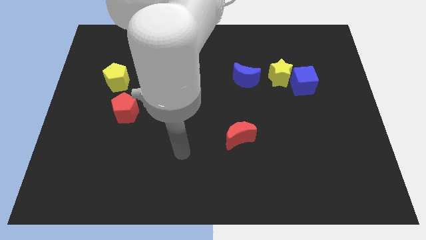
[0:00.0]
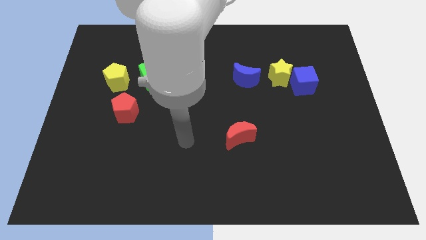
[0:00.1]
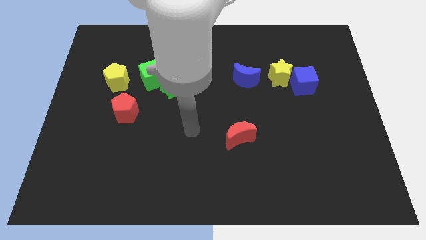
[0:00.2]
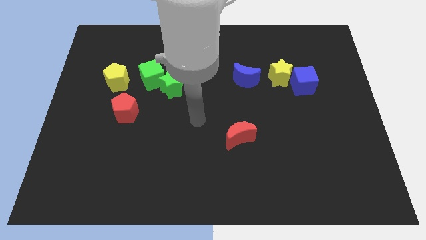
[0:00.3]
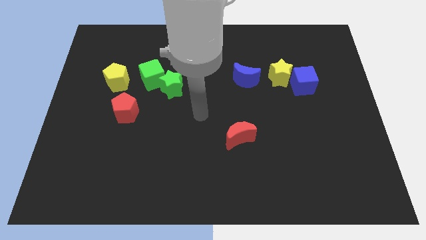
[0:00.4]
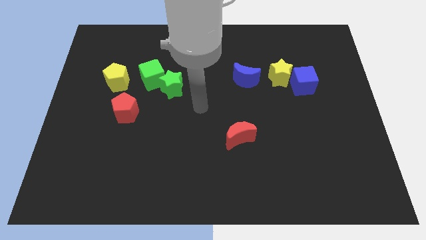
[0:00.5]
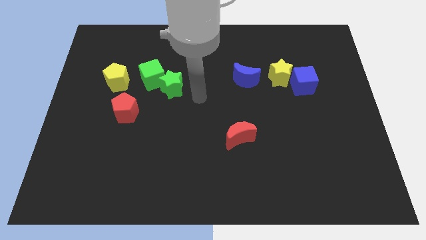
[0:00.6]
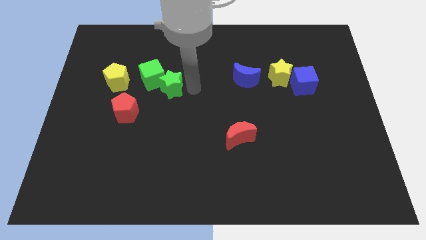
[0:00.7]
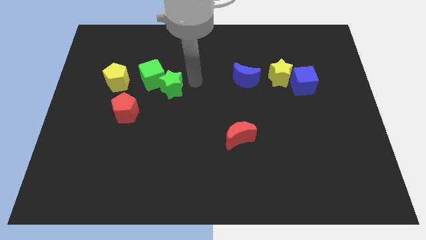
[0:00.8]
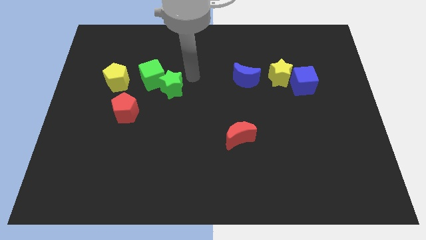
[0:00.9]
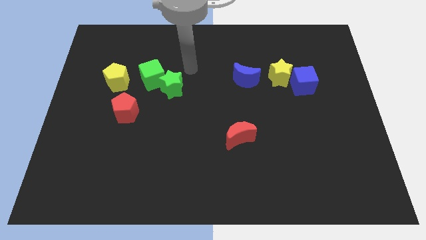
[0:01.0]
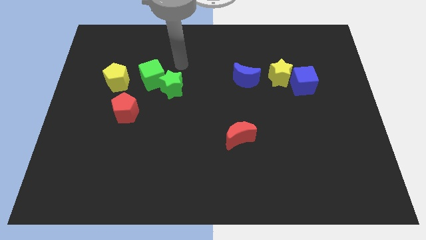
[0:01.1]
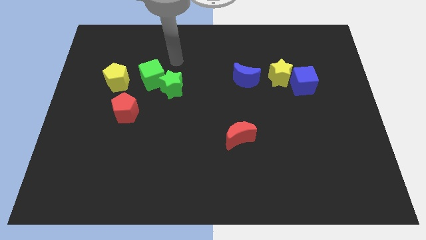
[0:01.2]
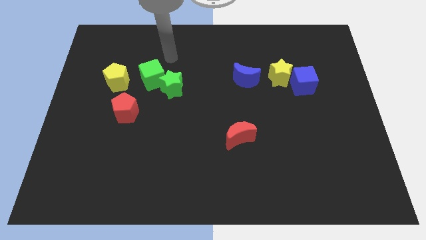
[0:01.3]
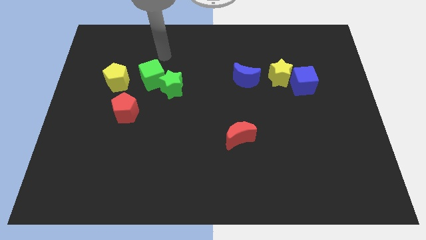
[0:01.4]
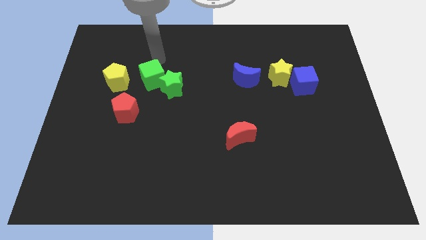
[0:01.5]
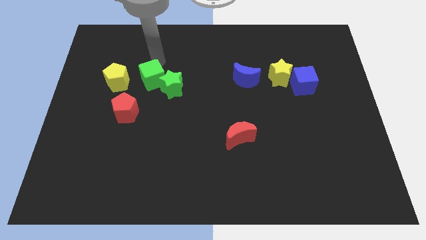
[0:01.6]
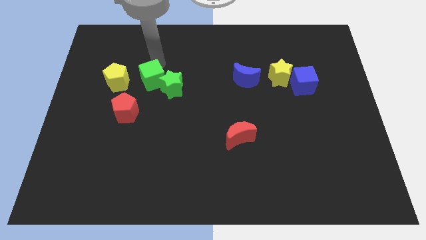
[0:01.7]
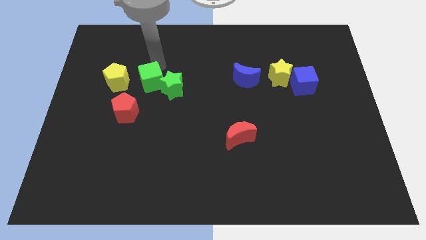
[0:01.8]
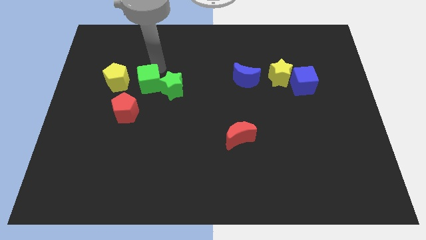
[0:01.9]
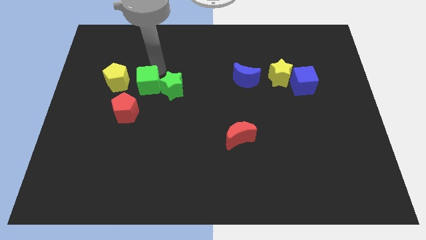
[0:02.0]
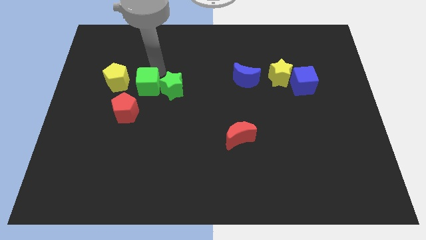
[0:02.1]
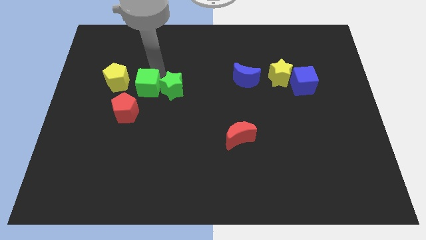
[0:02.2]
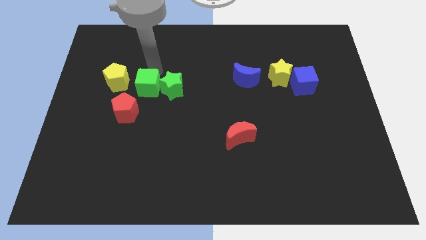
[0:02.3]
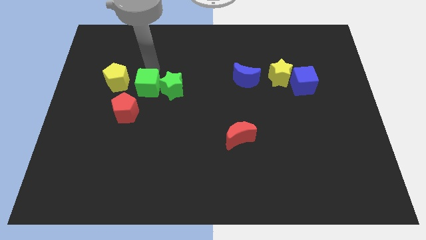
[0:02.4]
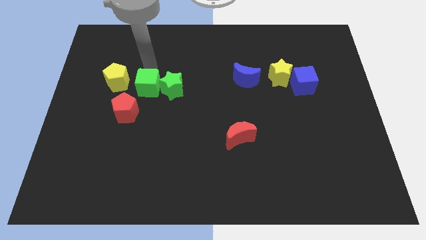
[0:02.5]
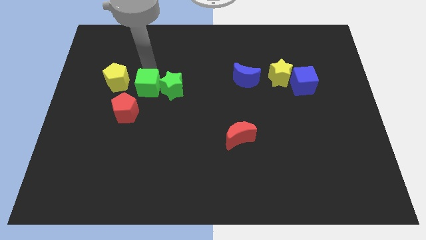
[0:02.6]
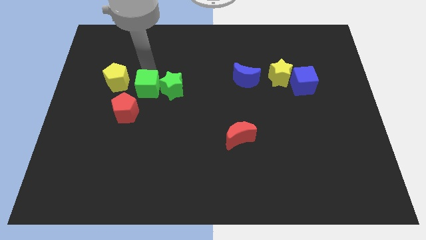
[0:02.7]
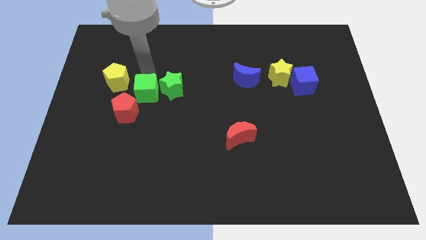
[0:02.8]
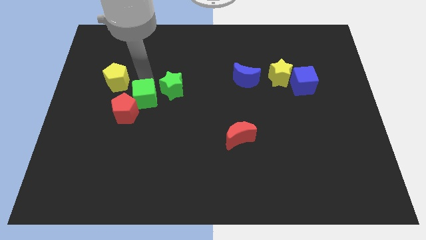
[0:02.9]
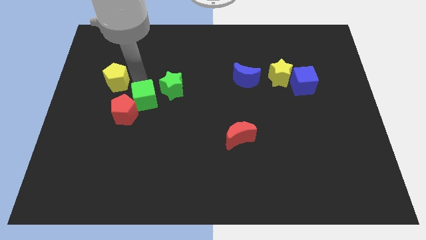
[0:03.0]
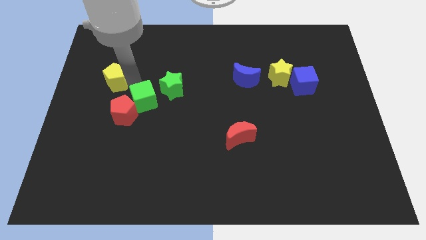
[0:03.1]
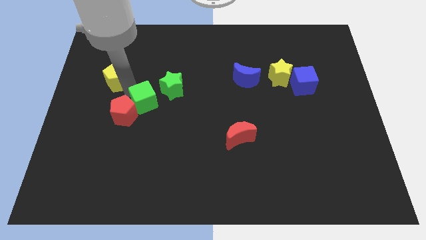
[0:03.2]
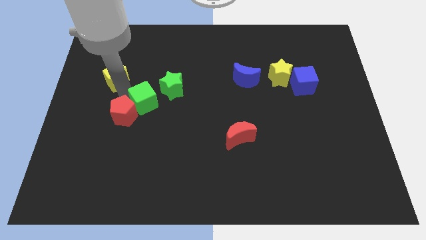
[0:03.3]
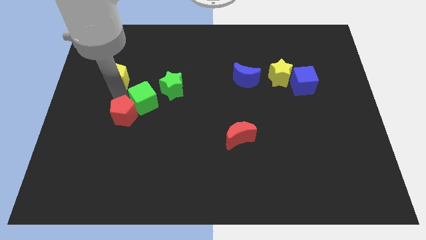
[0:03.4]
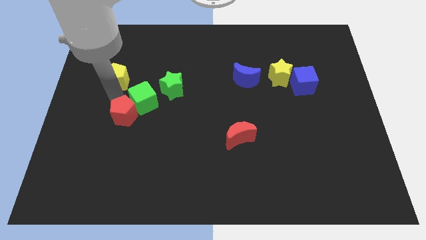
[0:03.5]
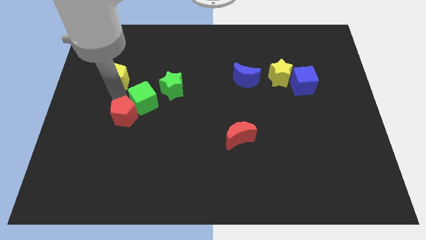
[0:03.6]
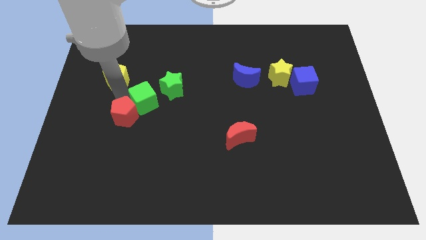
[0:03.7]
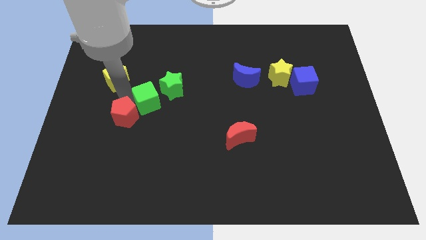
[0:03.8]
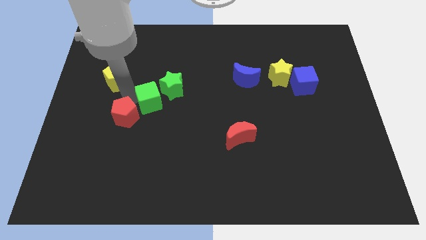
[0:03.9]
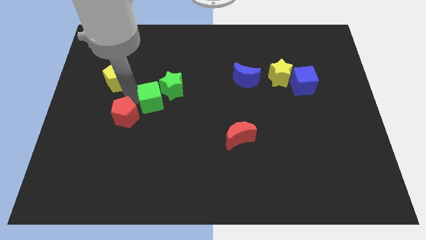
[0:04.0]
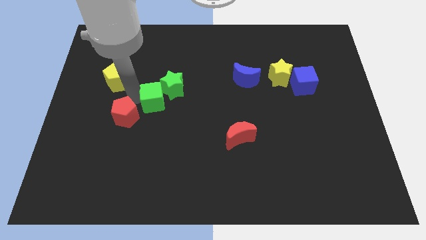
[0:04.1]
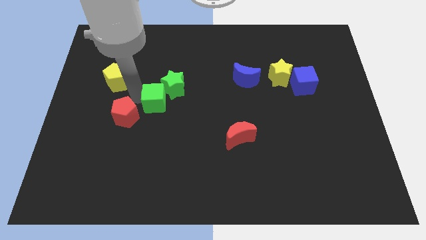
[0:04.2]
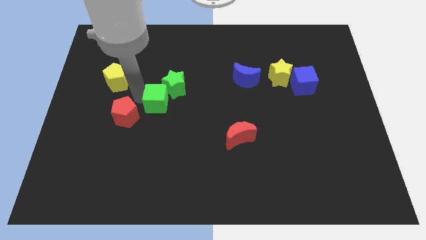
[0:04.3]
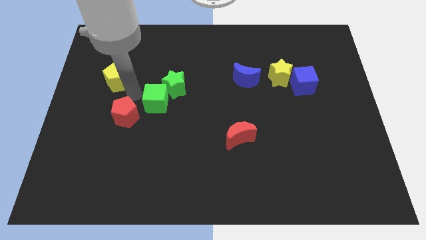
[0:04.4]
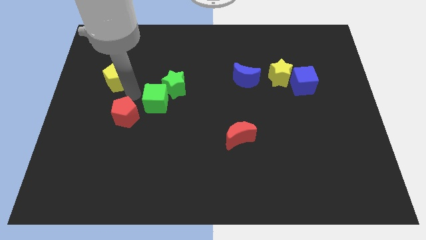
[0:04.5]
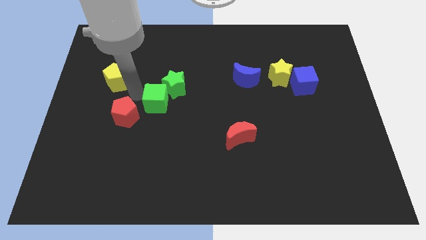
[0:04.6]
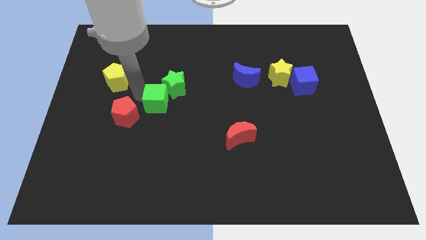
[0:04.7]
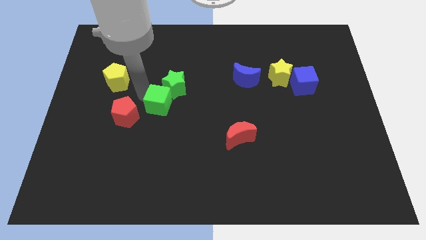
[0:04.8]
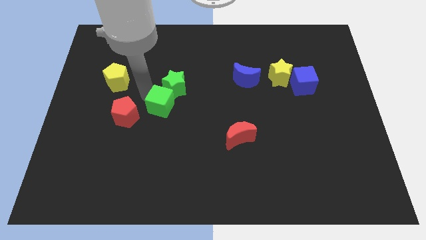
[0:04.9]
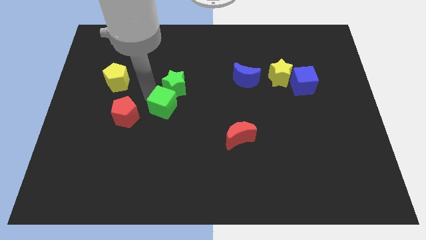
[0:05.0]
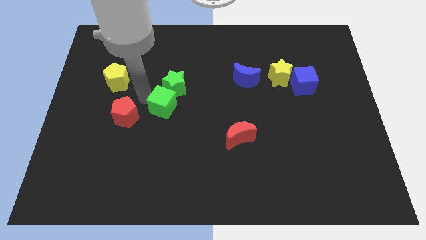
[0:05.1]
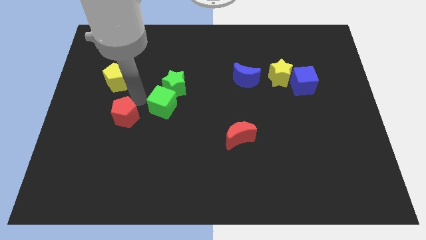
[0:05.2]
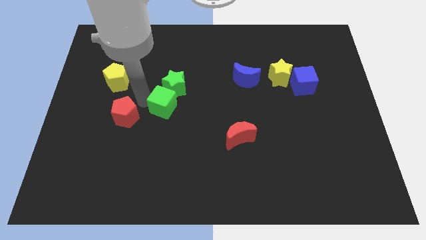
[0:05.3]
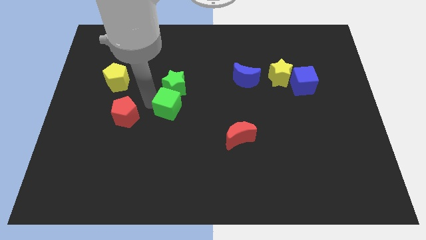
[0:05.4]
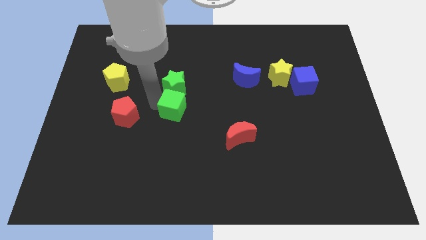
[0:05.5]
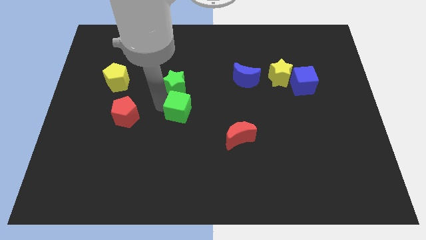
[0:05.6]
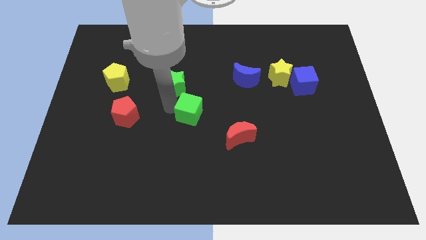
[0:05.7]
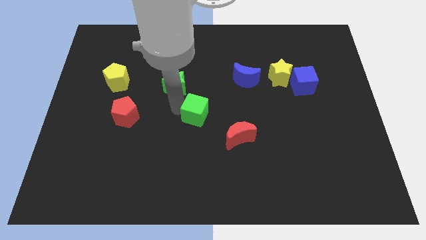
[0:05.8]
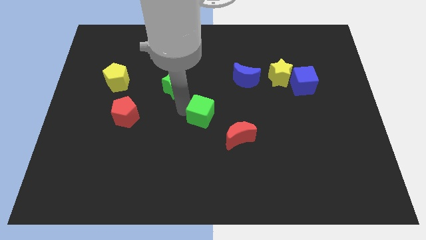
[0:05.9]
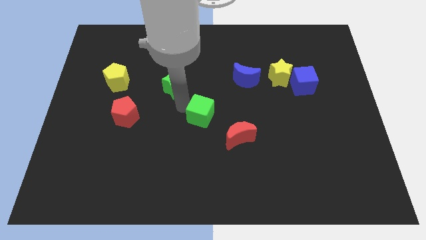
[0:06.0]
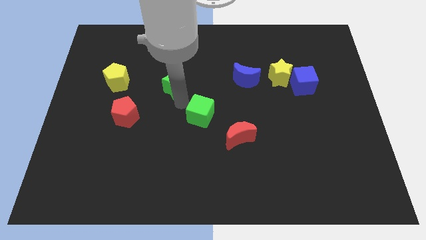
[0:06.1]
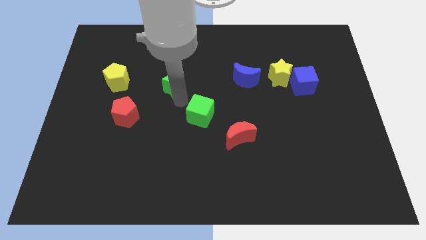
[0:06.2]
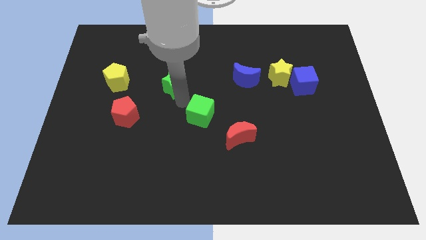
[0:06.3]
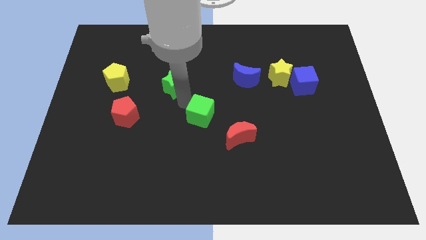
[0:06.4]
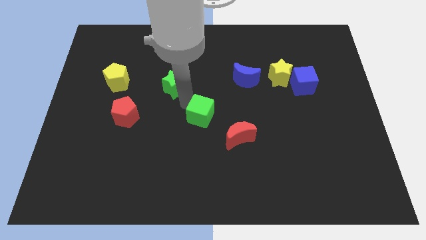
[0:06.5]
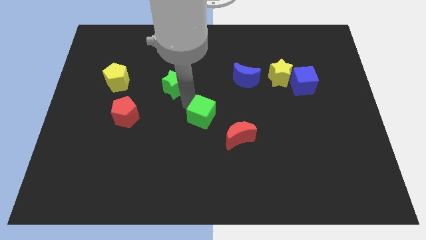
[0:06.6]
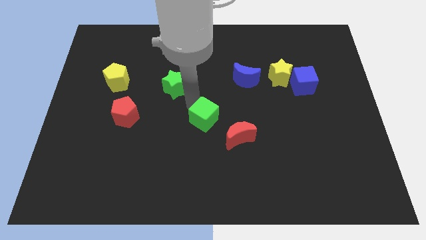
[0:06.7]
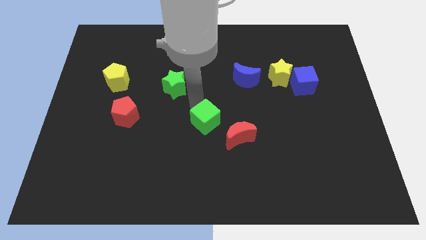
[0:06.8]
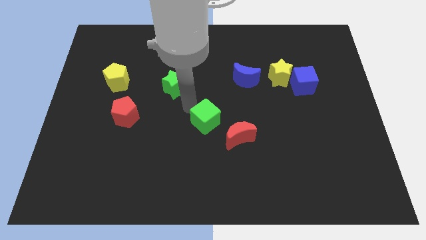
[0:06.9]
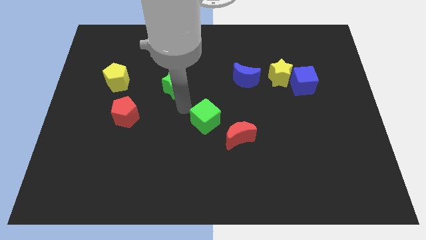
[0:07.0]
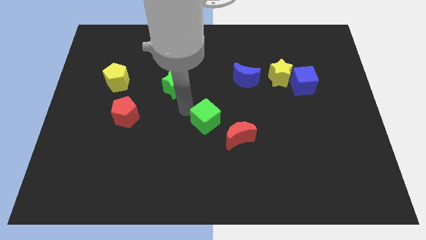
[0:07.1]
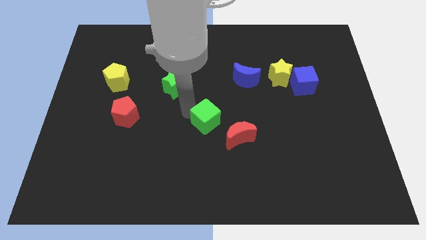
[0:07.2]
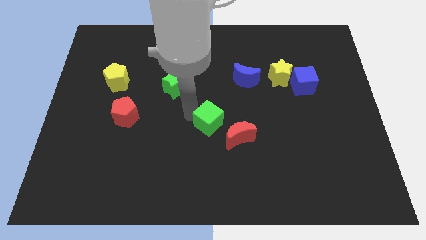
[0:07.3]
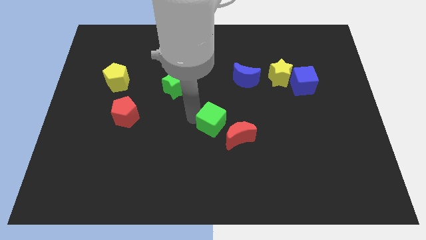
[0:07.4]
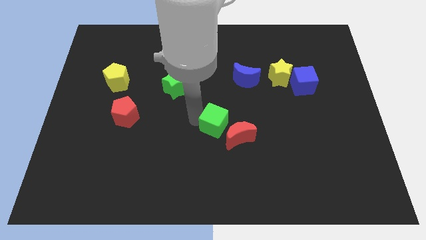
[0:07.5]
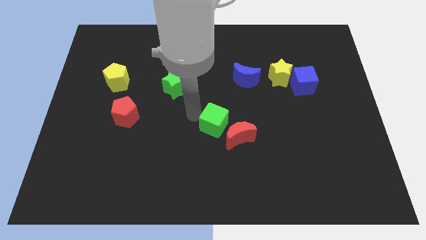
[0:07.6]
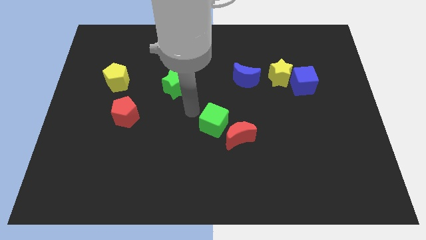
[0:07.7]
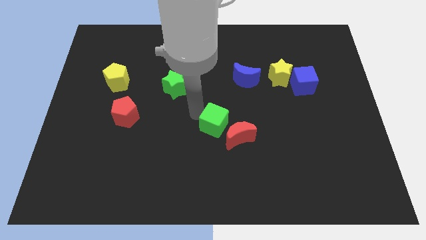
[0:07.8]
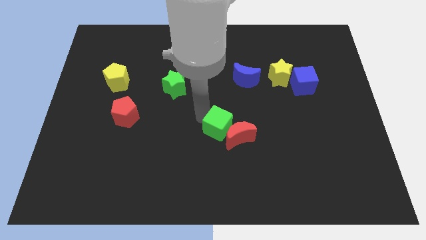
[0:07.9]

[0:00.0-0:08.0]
put the green cube towards the red moon
